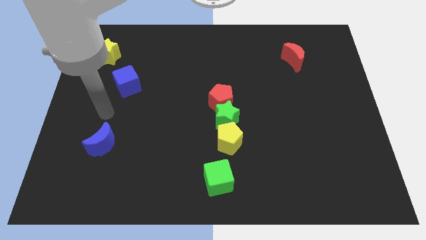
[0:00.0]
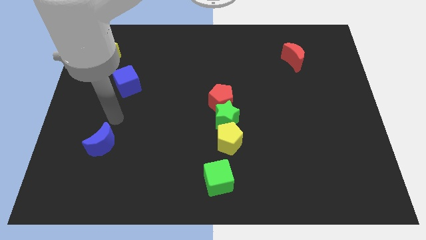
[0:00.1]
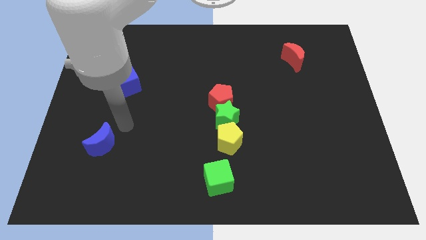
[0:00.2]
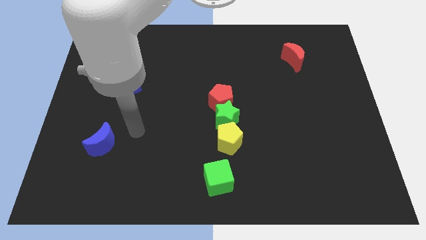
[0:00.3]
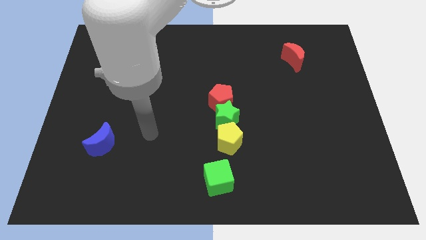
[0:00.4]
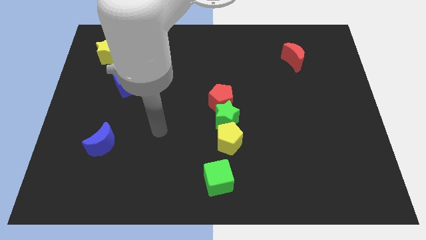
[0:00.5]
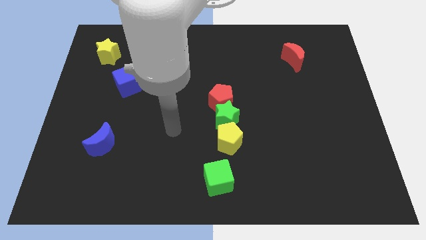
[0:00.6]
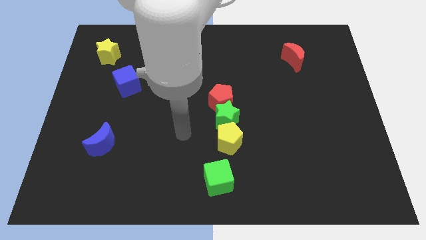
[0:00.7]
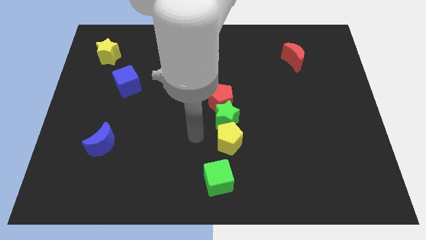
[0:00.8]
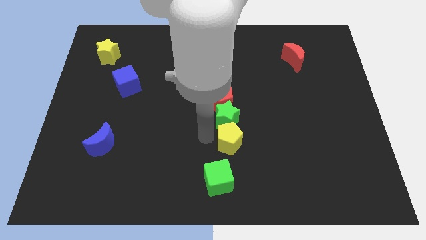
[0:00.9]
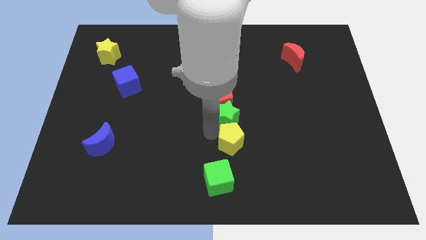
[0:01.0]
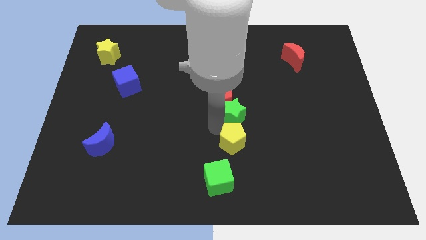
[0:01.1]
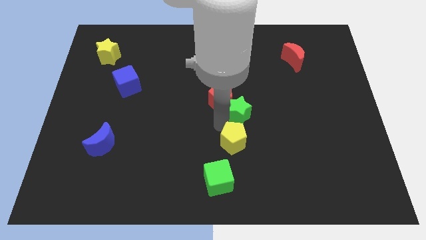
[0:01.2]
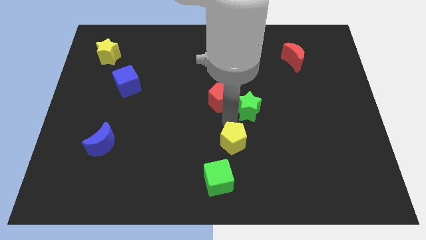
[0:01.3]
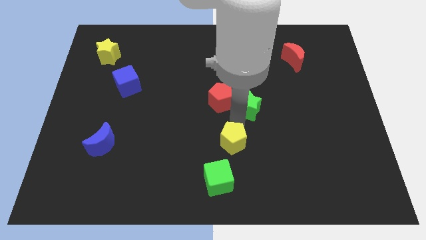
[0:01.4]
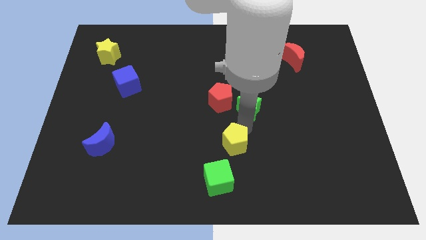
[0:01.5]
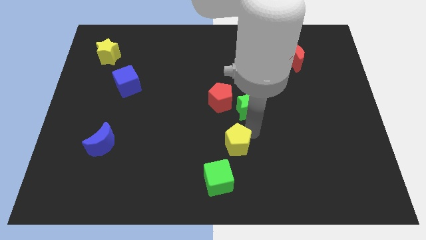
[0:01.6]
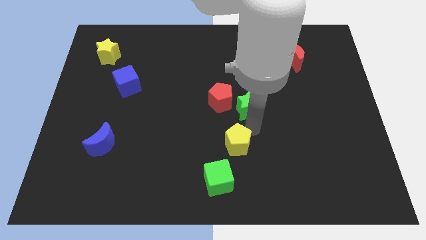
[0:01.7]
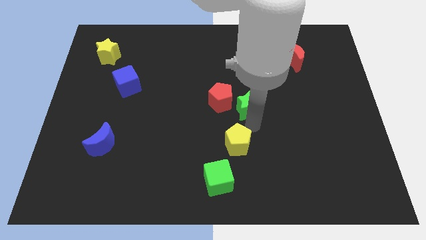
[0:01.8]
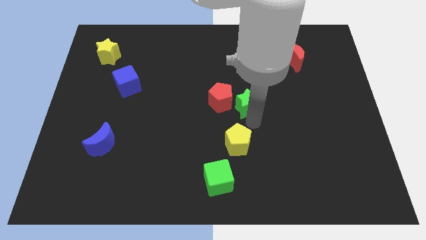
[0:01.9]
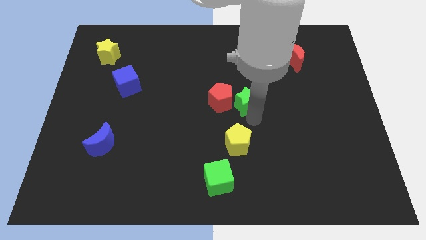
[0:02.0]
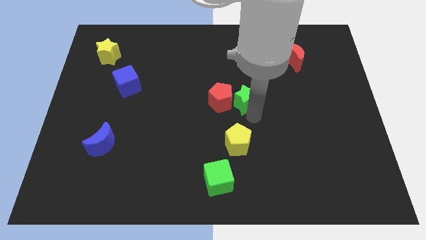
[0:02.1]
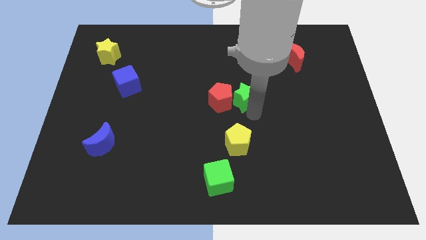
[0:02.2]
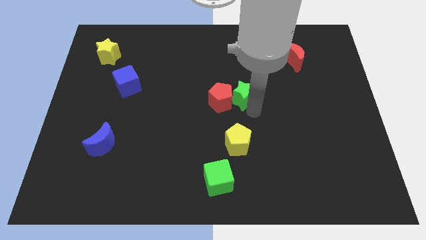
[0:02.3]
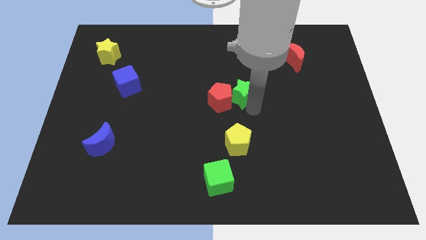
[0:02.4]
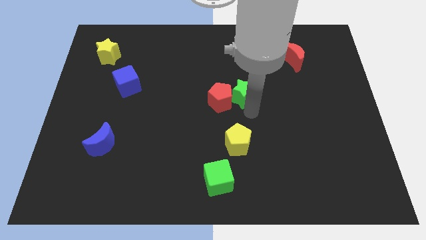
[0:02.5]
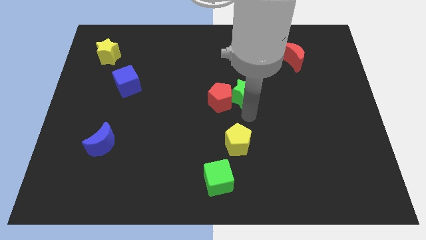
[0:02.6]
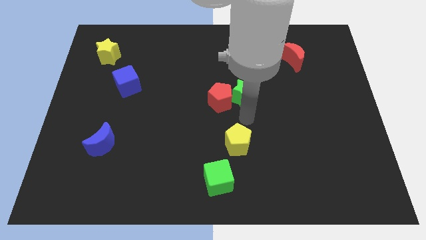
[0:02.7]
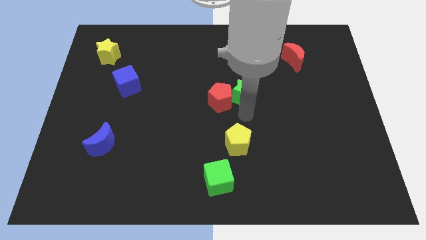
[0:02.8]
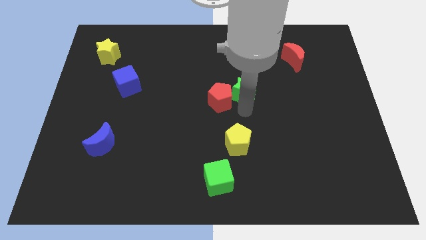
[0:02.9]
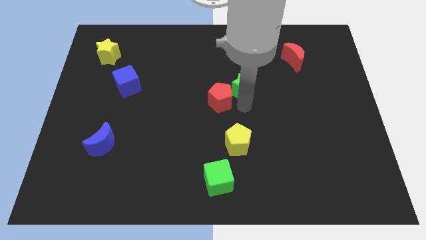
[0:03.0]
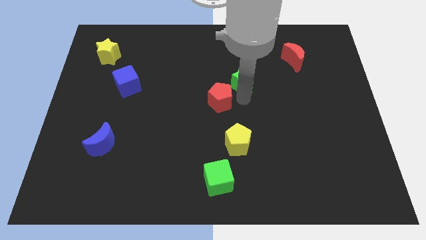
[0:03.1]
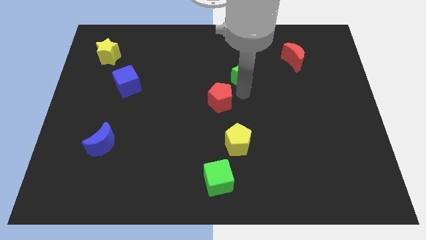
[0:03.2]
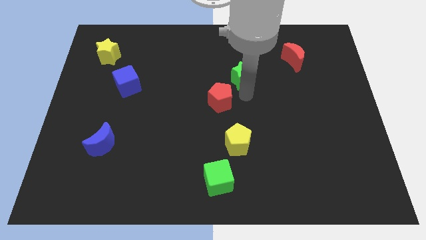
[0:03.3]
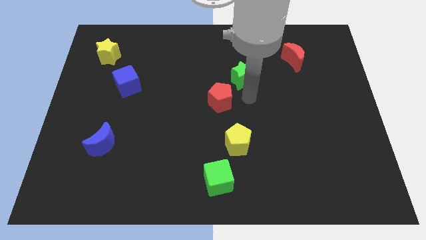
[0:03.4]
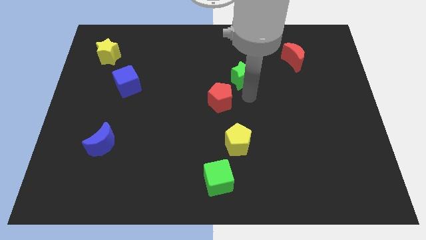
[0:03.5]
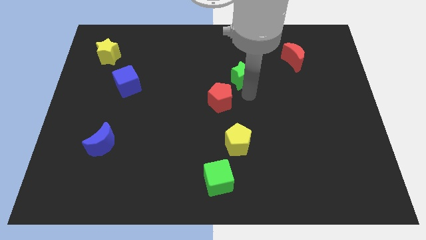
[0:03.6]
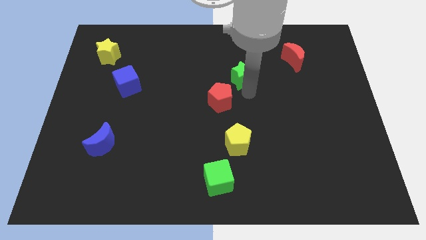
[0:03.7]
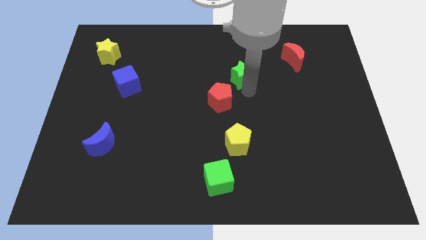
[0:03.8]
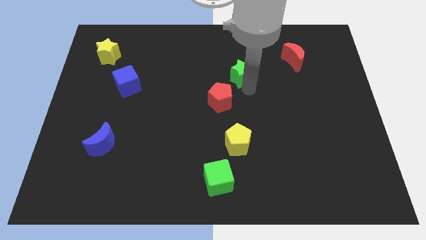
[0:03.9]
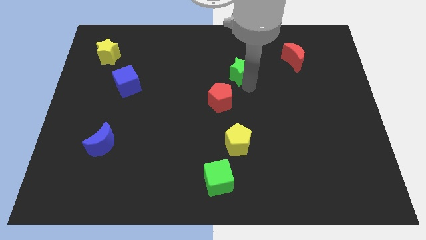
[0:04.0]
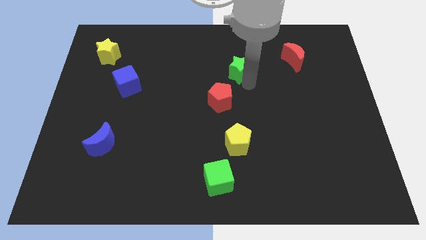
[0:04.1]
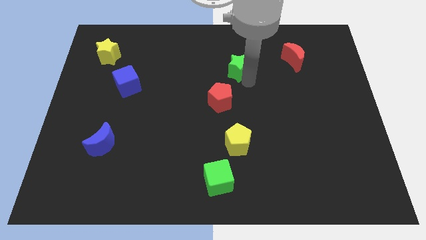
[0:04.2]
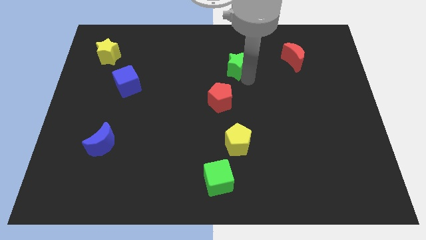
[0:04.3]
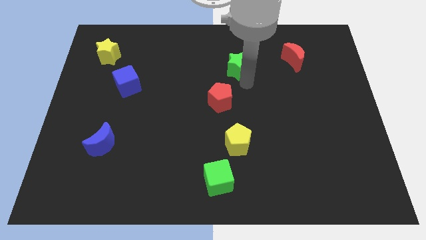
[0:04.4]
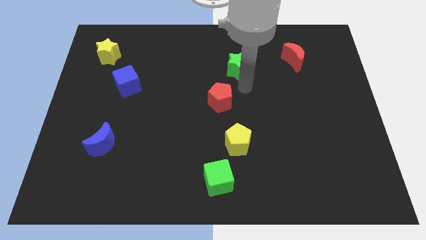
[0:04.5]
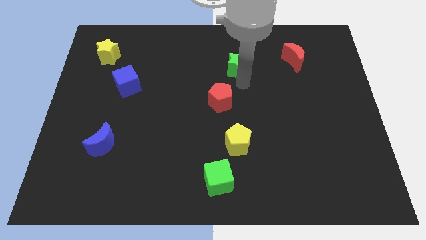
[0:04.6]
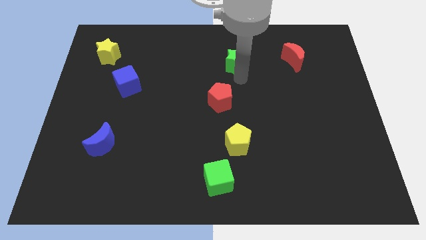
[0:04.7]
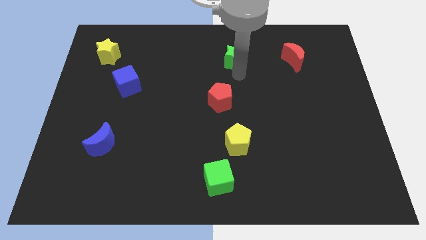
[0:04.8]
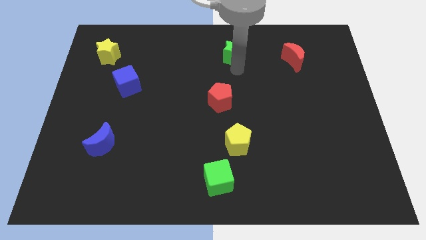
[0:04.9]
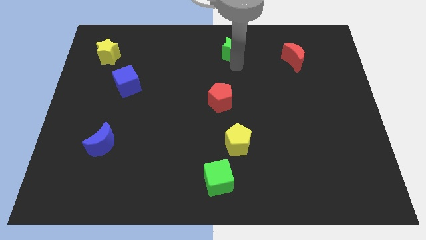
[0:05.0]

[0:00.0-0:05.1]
slide the green star to the towards your base
